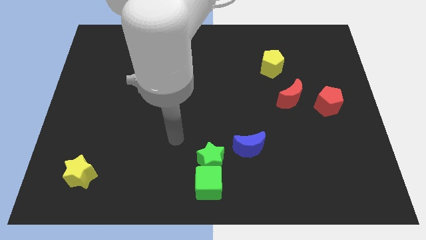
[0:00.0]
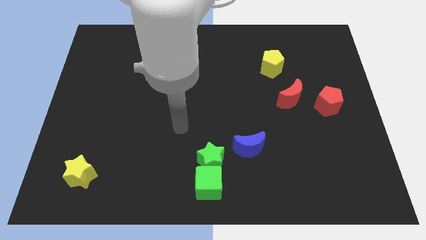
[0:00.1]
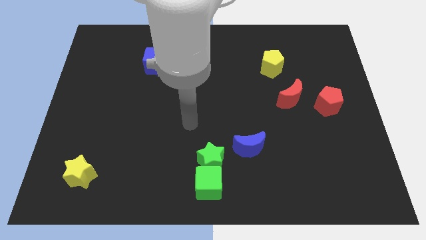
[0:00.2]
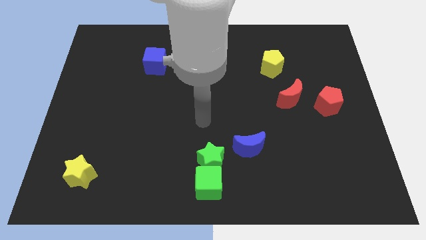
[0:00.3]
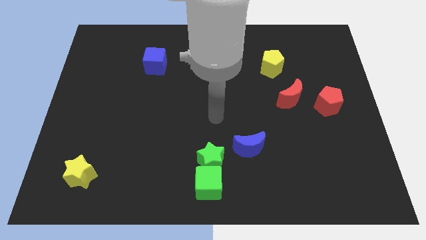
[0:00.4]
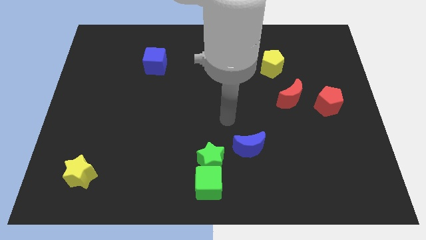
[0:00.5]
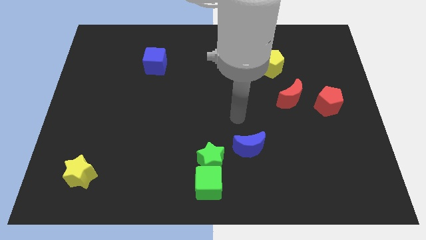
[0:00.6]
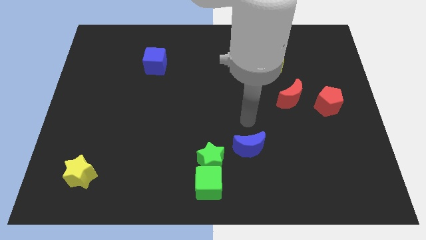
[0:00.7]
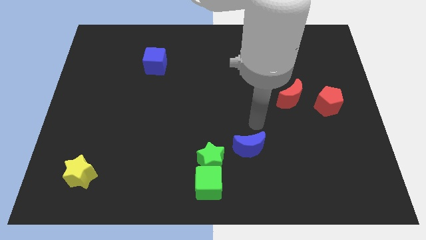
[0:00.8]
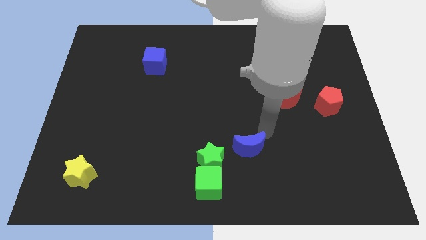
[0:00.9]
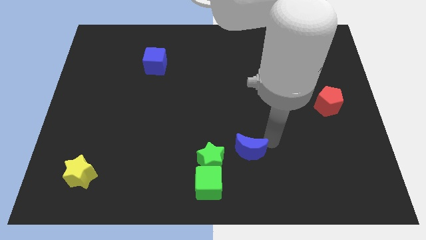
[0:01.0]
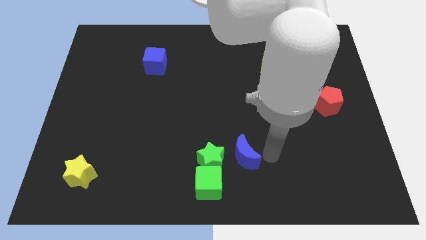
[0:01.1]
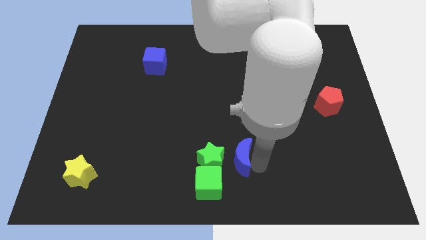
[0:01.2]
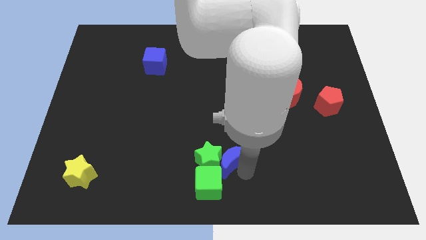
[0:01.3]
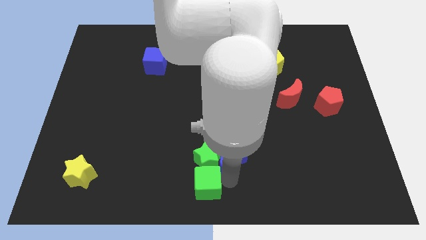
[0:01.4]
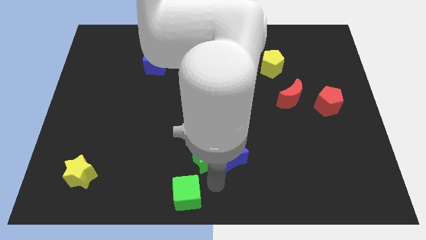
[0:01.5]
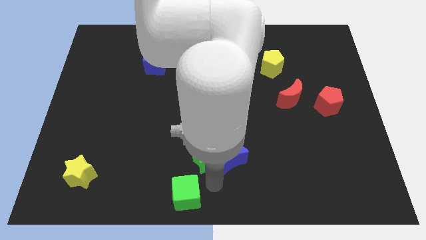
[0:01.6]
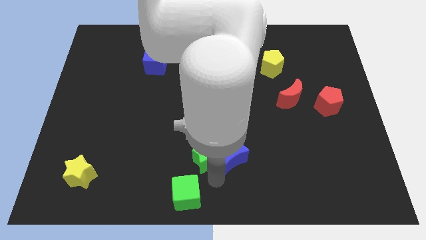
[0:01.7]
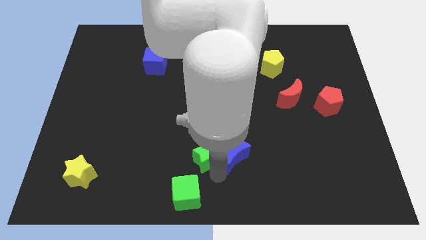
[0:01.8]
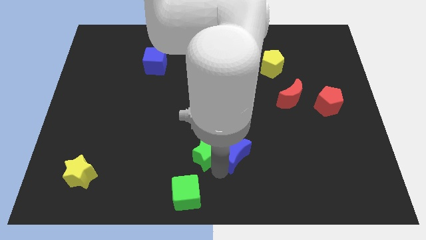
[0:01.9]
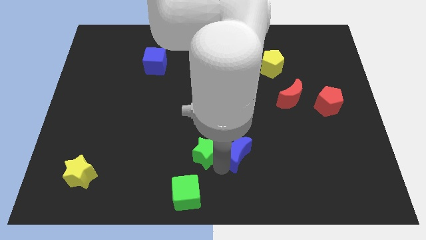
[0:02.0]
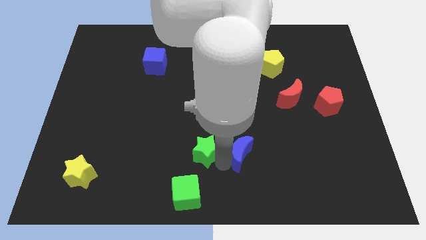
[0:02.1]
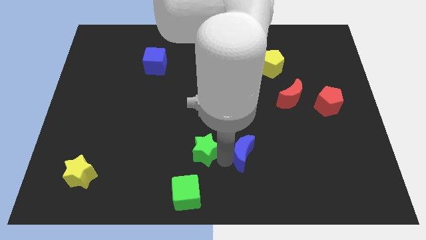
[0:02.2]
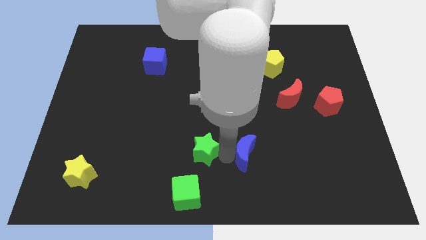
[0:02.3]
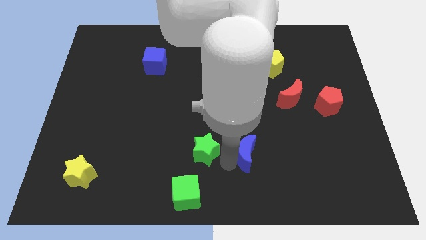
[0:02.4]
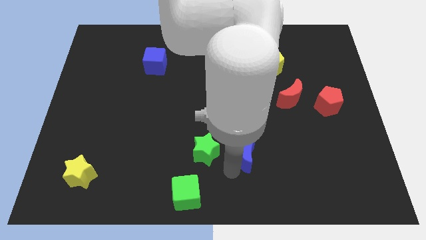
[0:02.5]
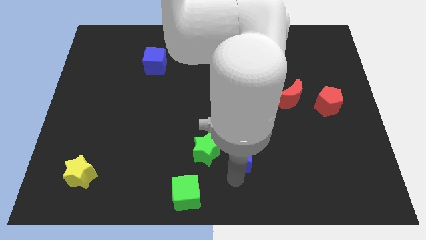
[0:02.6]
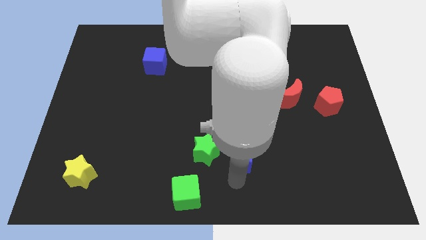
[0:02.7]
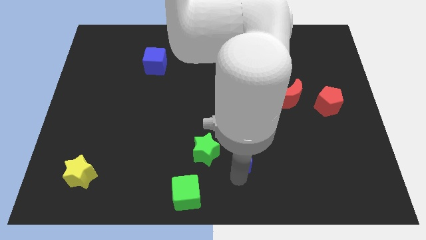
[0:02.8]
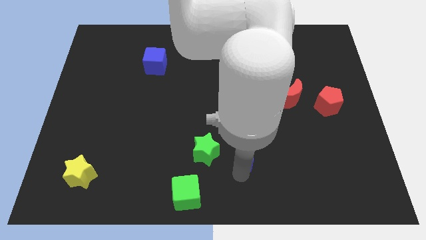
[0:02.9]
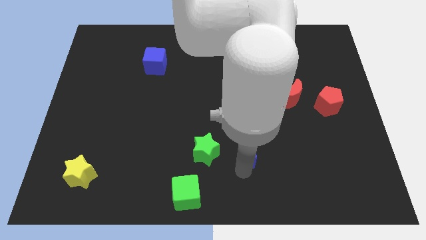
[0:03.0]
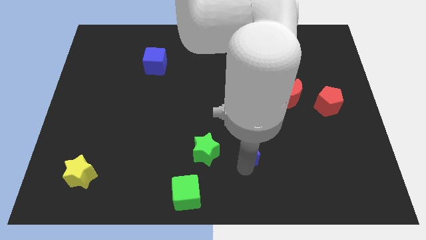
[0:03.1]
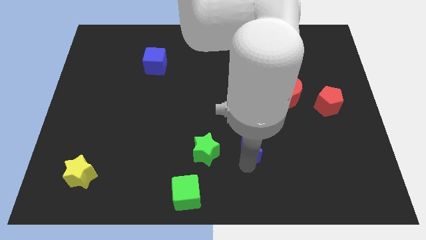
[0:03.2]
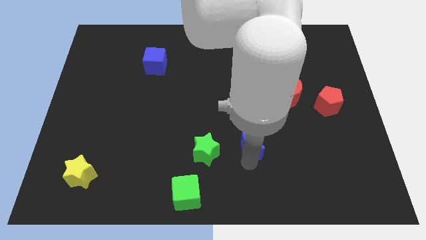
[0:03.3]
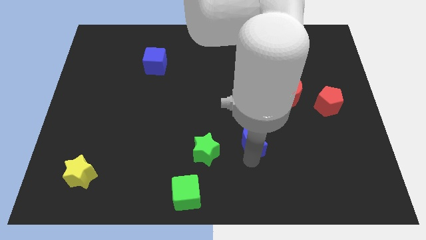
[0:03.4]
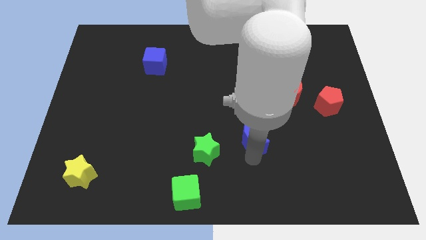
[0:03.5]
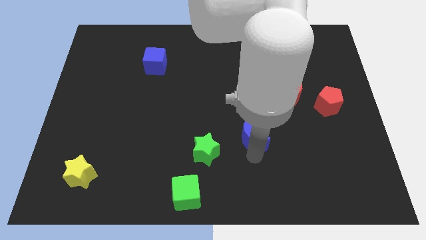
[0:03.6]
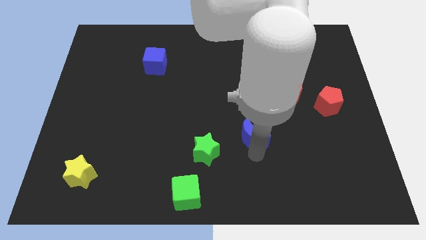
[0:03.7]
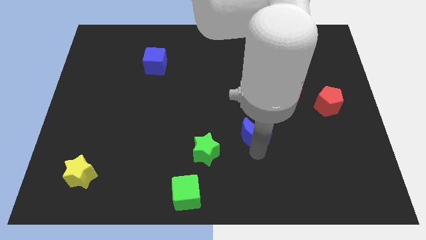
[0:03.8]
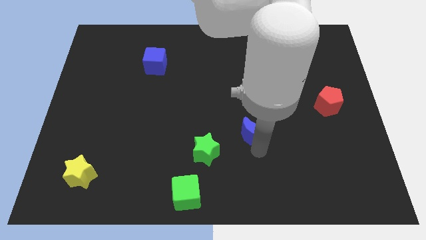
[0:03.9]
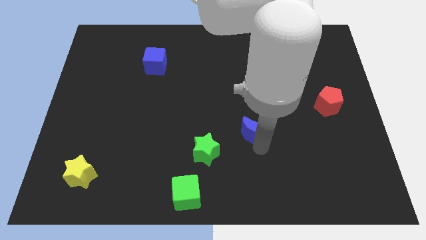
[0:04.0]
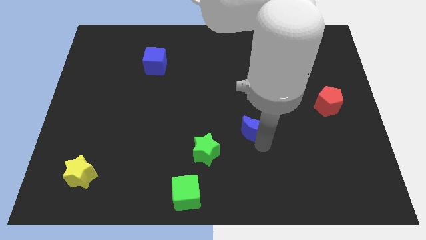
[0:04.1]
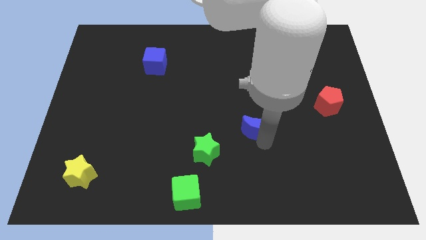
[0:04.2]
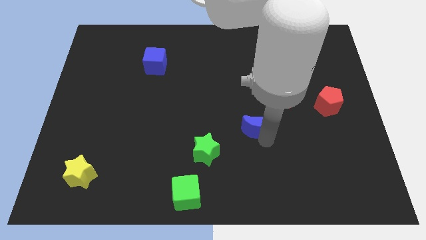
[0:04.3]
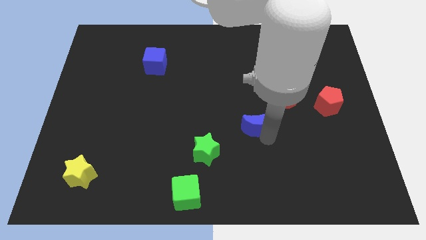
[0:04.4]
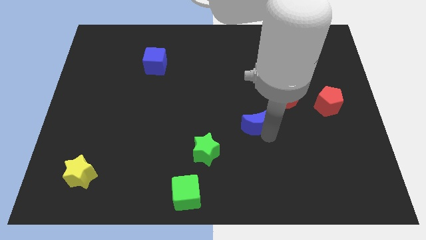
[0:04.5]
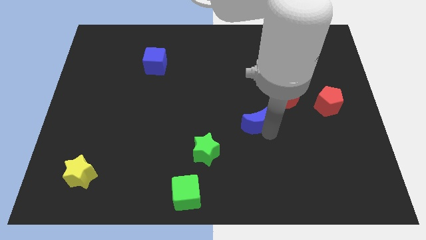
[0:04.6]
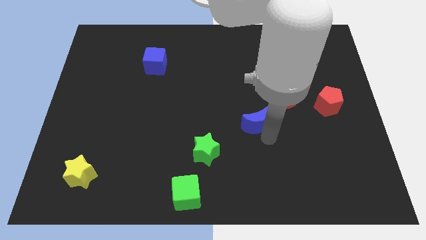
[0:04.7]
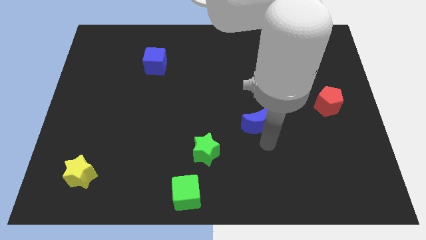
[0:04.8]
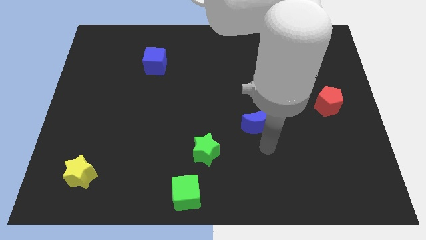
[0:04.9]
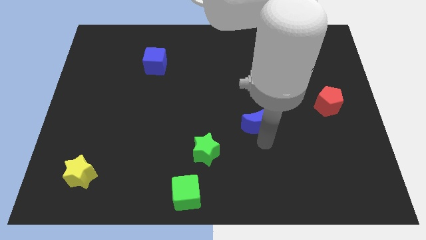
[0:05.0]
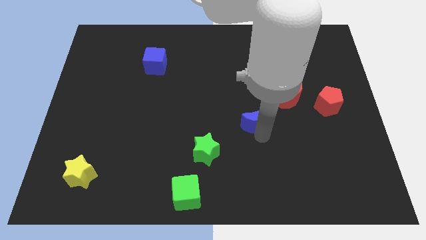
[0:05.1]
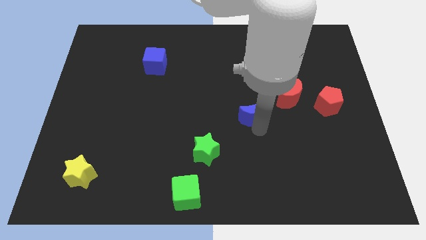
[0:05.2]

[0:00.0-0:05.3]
move the blue moon up a bit

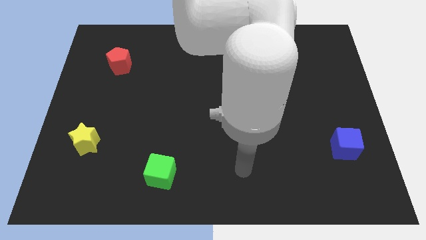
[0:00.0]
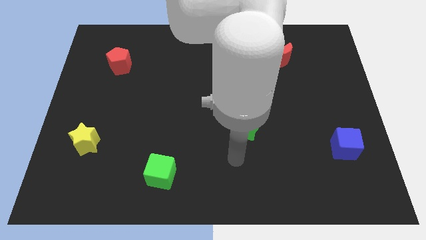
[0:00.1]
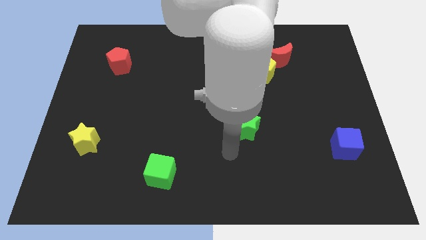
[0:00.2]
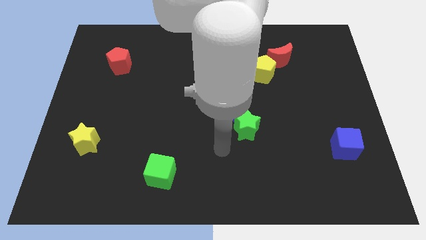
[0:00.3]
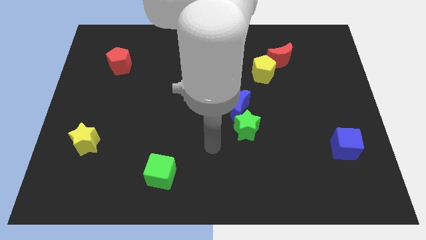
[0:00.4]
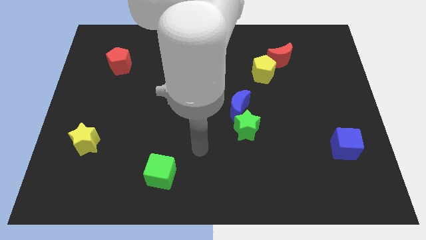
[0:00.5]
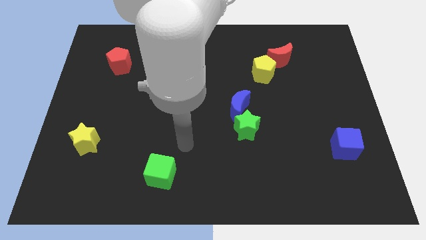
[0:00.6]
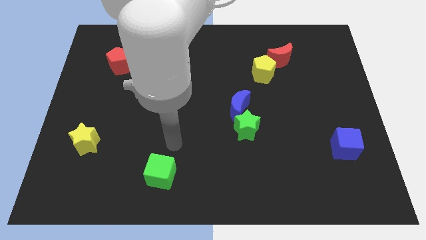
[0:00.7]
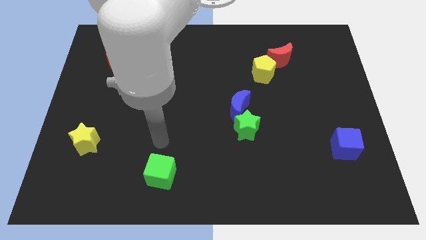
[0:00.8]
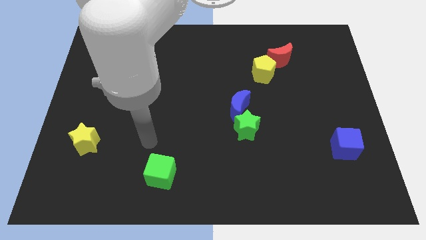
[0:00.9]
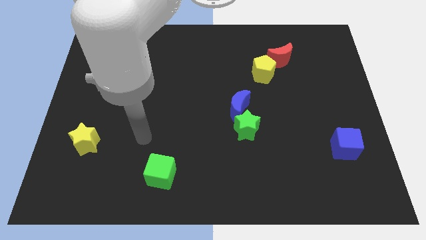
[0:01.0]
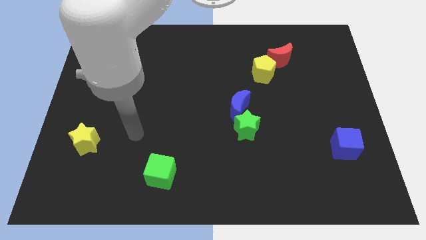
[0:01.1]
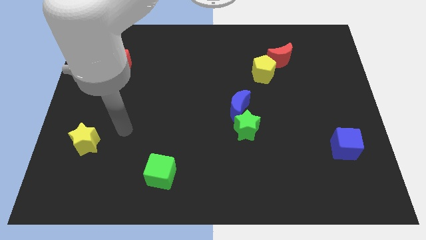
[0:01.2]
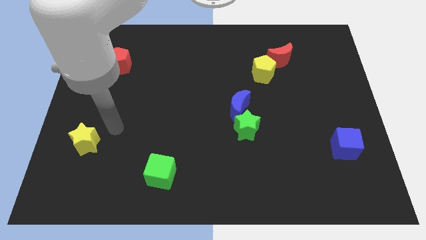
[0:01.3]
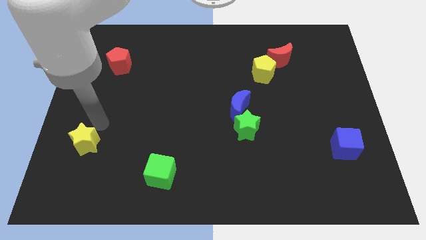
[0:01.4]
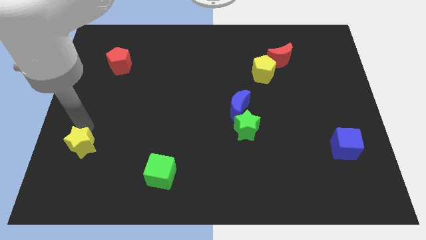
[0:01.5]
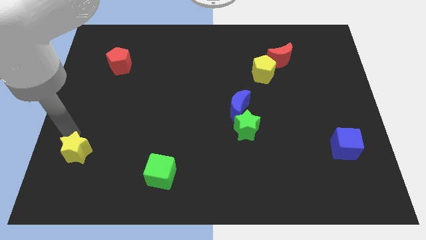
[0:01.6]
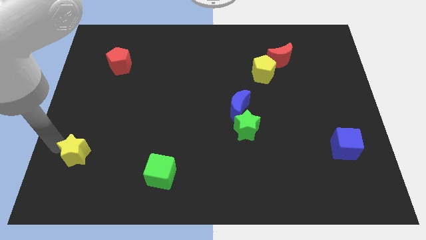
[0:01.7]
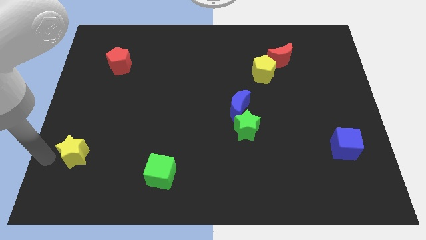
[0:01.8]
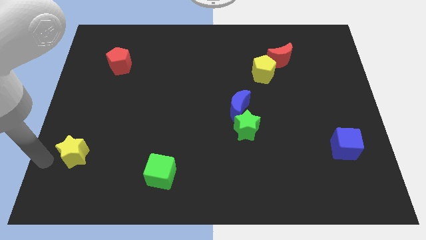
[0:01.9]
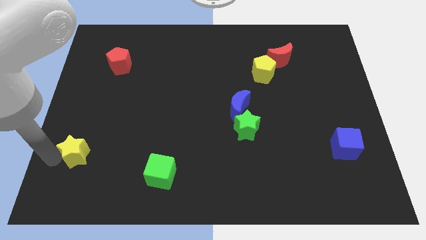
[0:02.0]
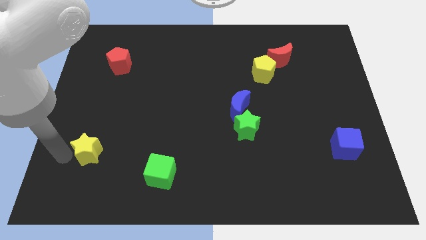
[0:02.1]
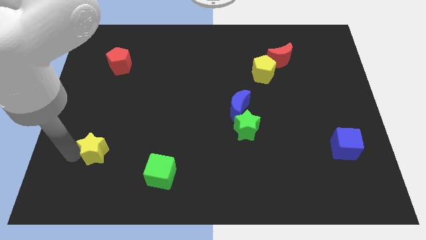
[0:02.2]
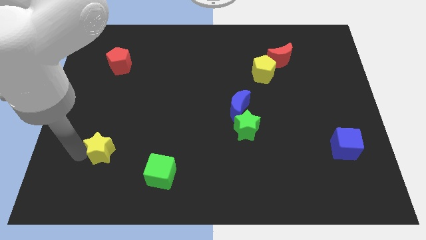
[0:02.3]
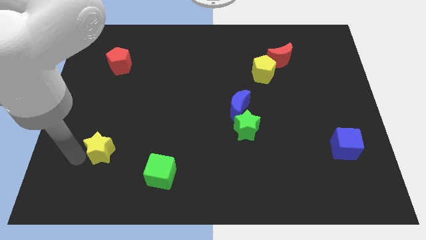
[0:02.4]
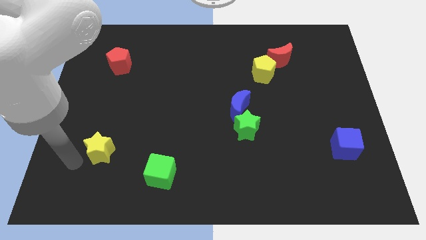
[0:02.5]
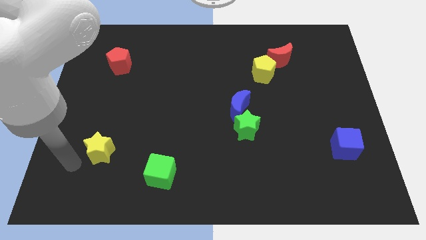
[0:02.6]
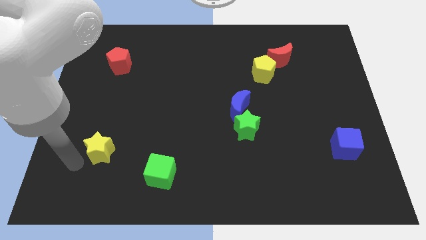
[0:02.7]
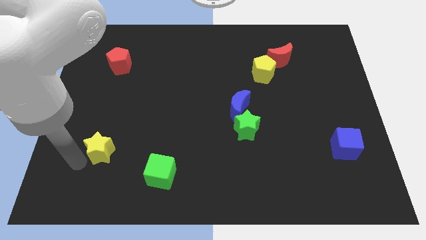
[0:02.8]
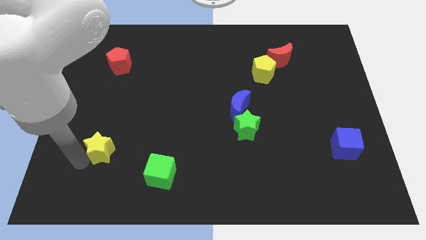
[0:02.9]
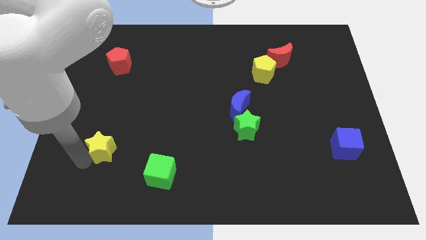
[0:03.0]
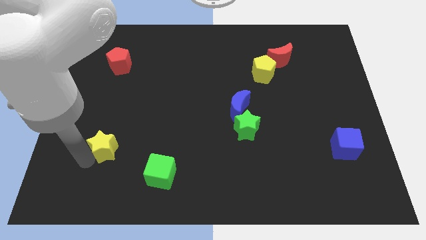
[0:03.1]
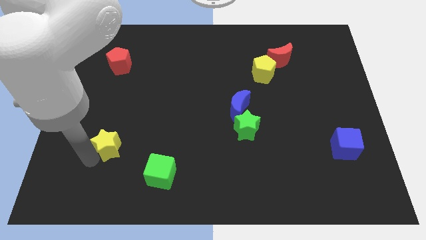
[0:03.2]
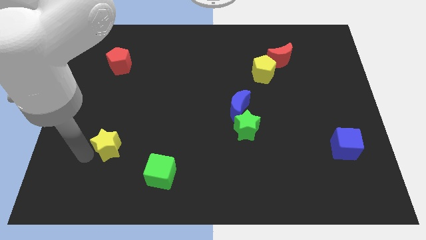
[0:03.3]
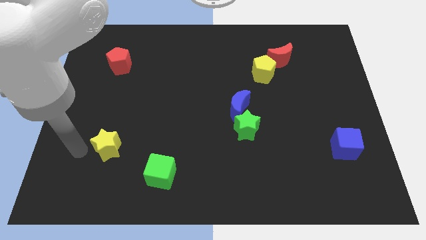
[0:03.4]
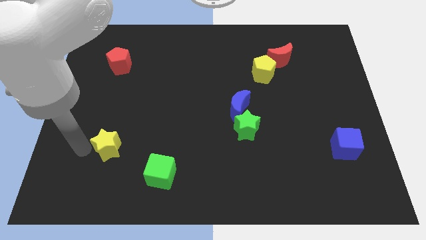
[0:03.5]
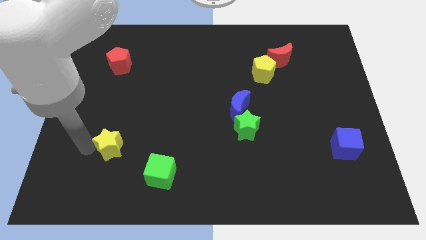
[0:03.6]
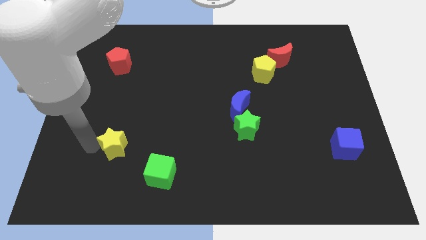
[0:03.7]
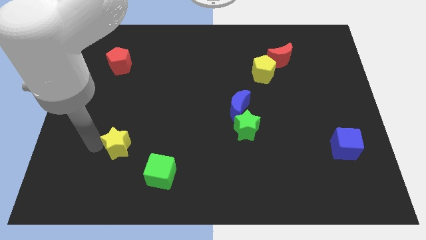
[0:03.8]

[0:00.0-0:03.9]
move the yellow star right slightly
